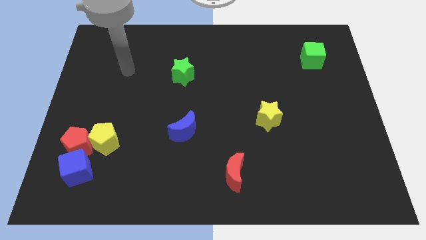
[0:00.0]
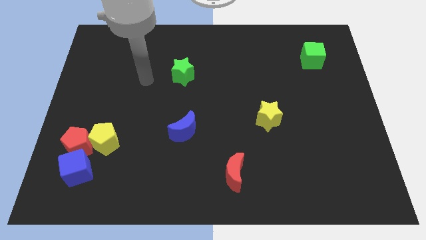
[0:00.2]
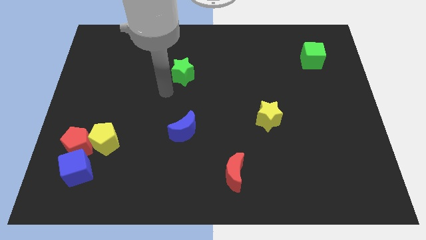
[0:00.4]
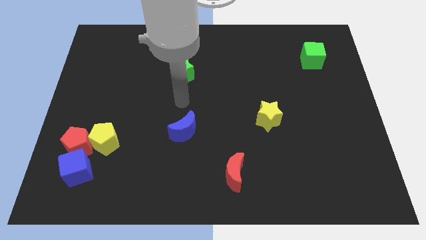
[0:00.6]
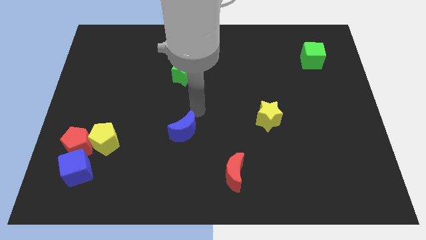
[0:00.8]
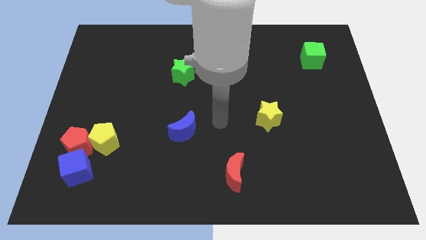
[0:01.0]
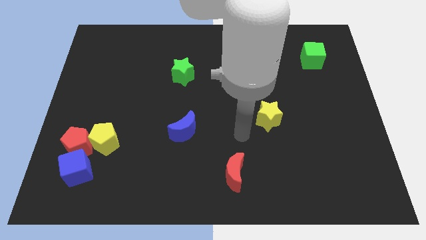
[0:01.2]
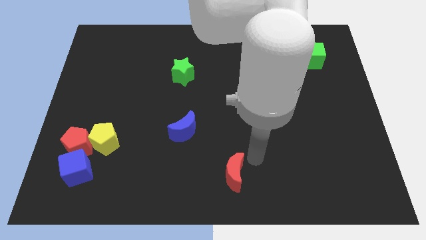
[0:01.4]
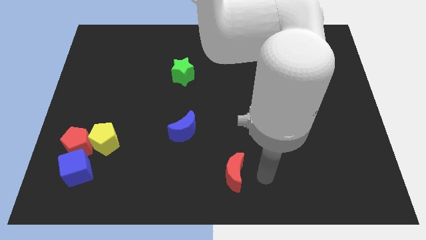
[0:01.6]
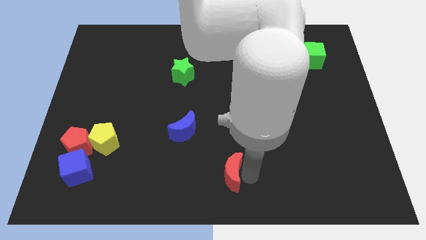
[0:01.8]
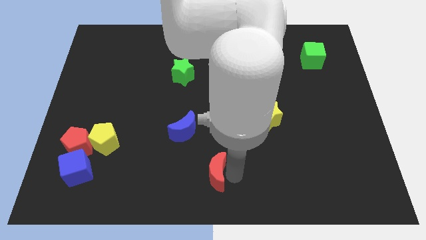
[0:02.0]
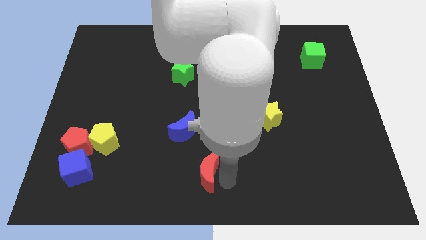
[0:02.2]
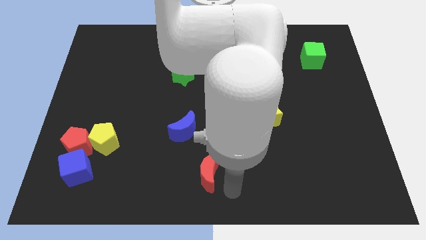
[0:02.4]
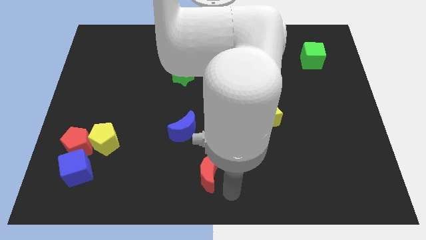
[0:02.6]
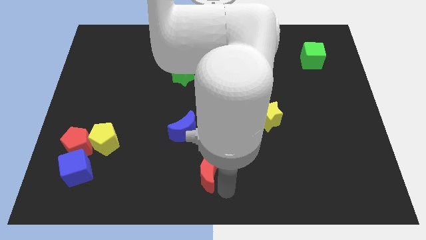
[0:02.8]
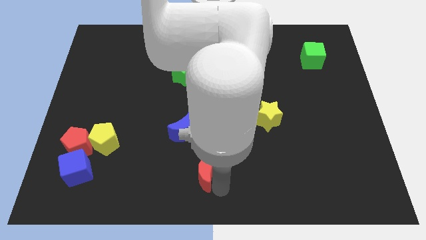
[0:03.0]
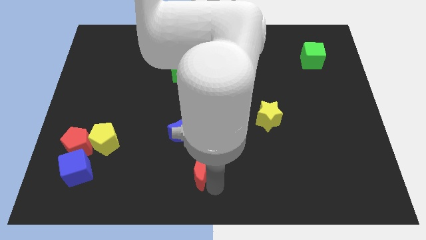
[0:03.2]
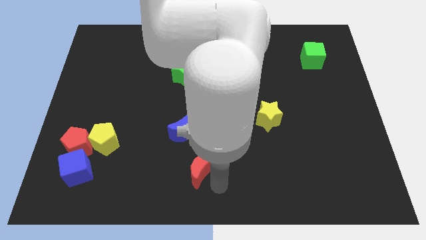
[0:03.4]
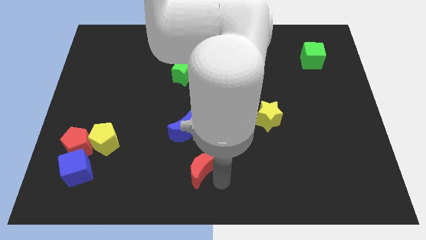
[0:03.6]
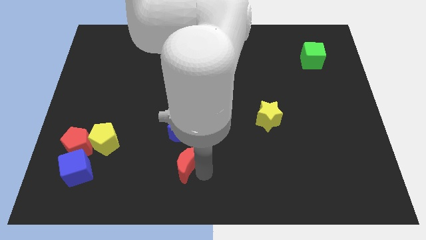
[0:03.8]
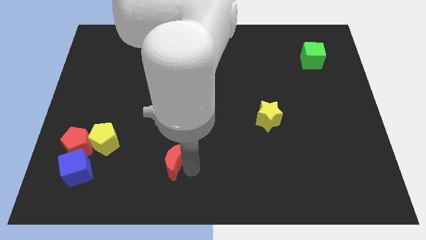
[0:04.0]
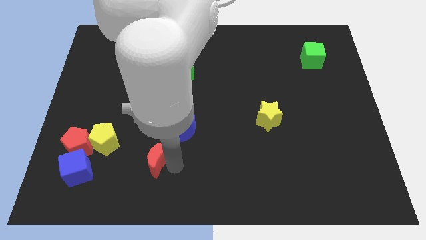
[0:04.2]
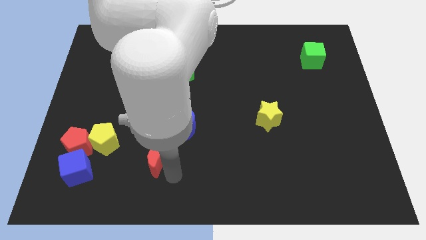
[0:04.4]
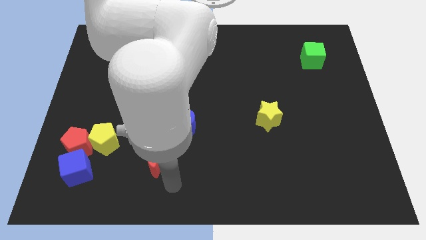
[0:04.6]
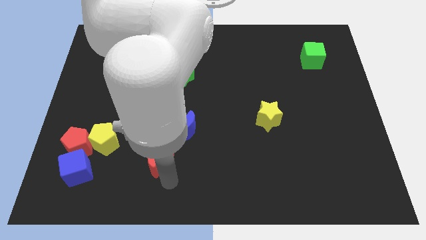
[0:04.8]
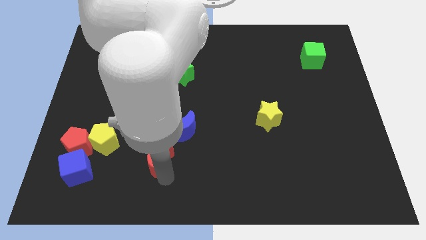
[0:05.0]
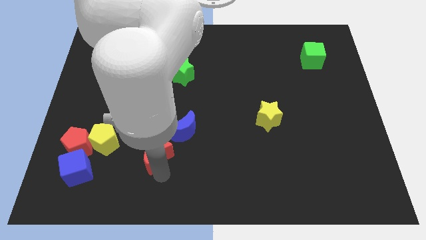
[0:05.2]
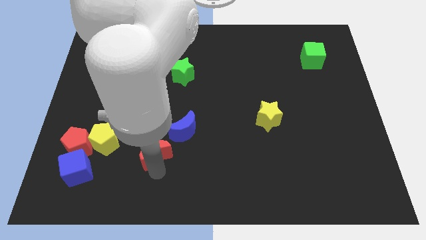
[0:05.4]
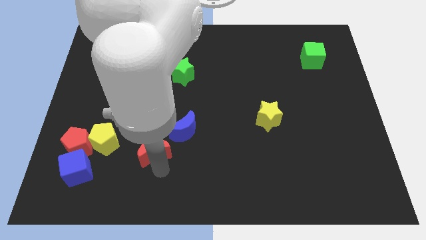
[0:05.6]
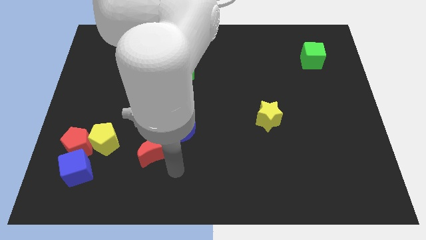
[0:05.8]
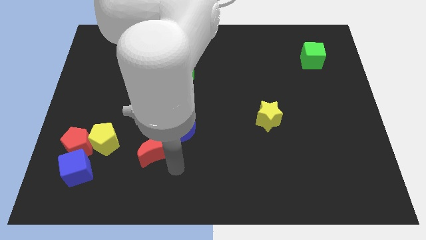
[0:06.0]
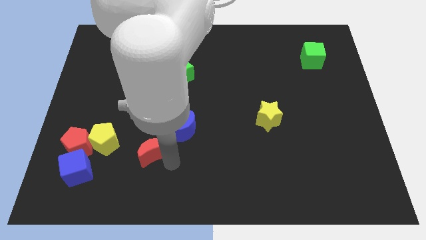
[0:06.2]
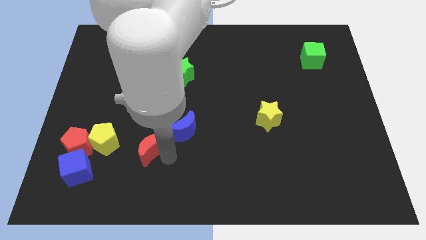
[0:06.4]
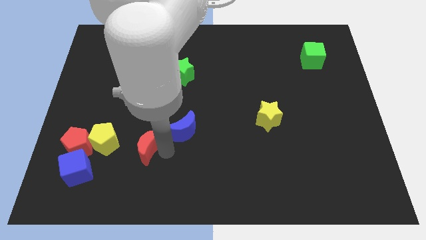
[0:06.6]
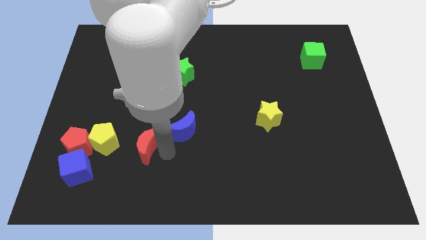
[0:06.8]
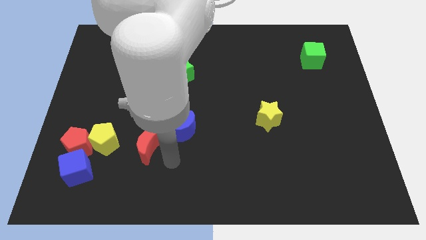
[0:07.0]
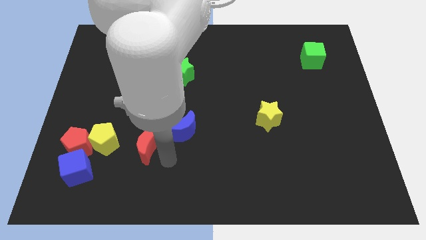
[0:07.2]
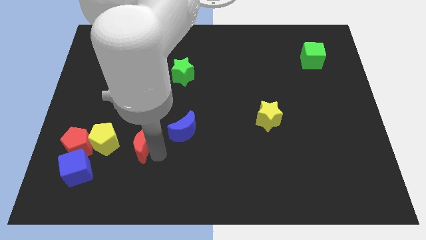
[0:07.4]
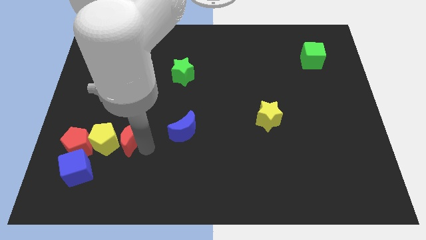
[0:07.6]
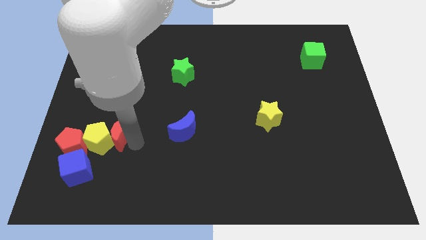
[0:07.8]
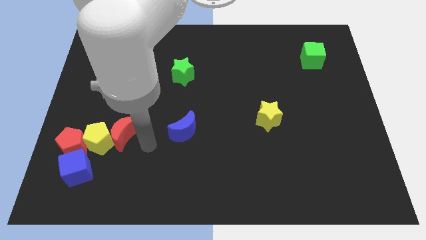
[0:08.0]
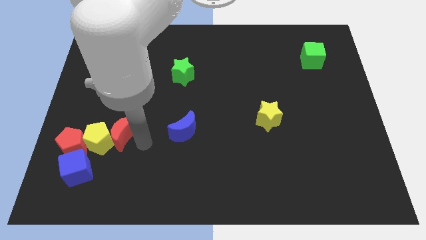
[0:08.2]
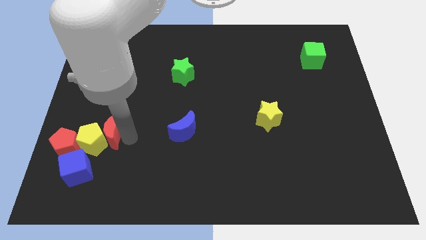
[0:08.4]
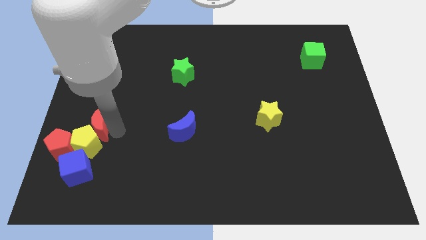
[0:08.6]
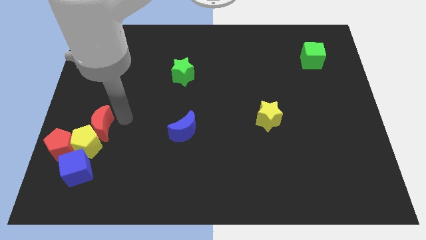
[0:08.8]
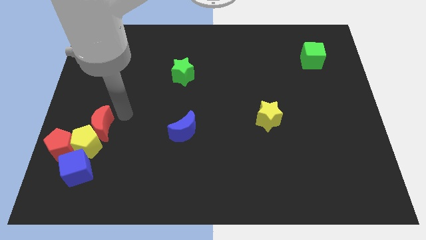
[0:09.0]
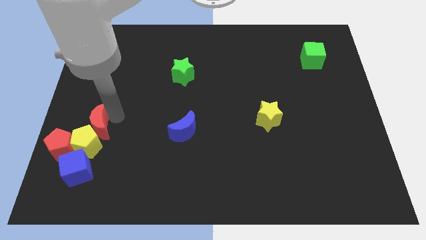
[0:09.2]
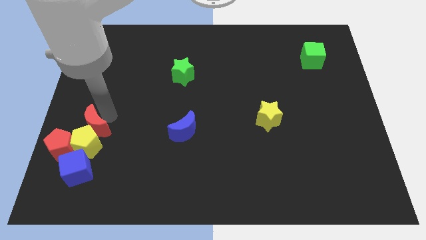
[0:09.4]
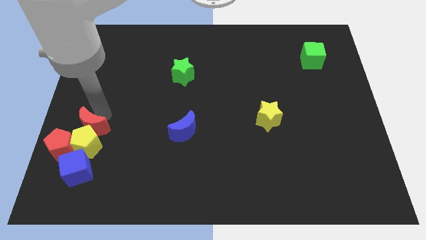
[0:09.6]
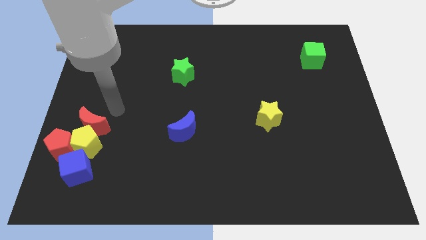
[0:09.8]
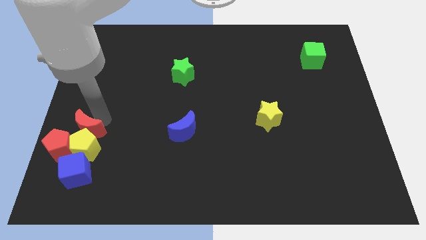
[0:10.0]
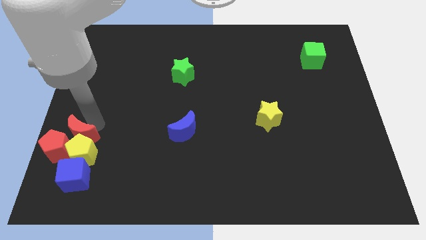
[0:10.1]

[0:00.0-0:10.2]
push the red moon close to the red pentagon

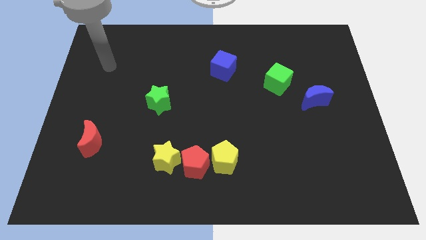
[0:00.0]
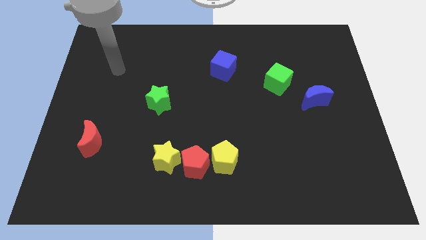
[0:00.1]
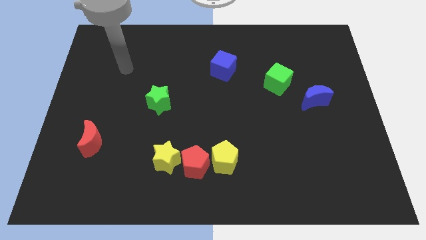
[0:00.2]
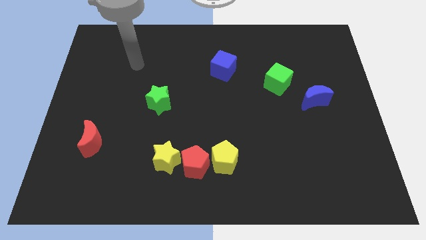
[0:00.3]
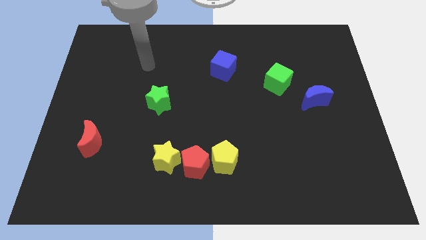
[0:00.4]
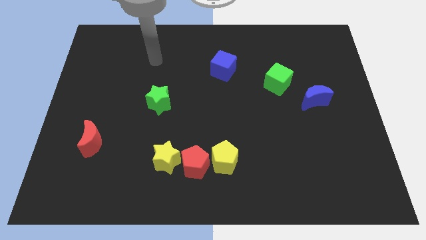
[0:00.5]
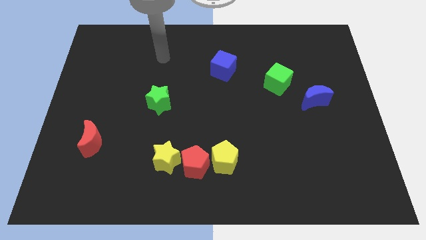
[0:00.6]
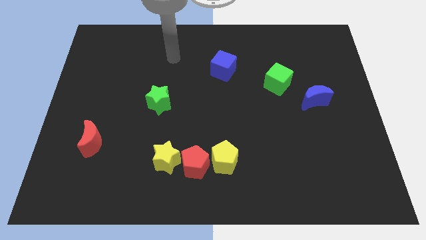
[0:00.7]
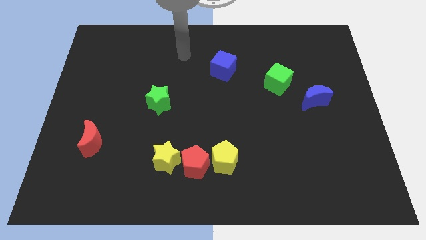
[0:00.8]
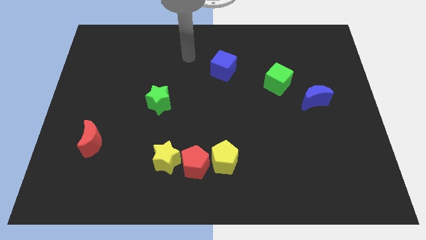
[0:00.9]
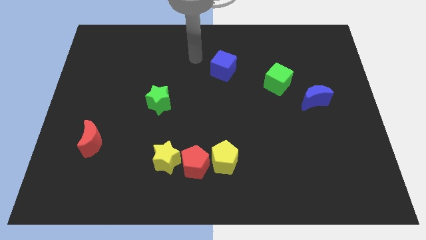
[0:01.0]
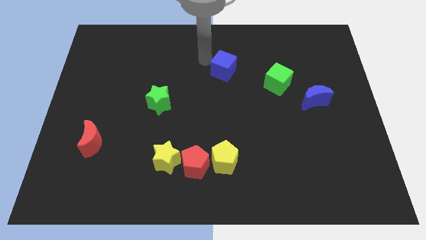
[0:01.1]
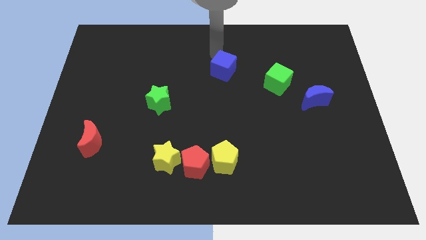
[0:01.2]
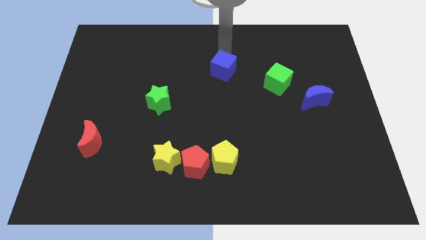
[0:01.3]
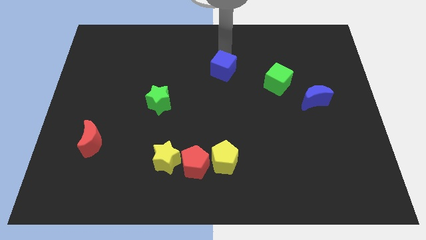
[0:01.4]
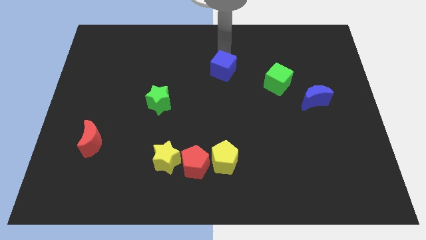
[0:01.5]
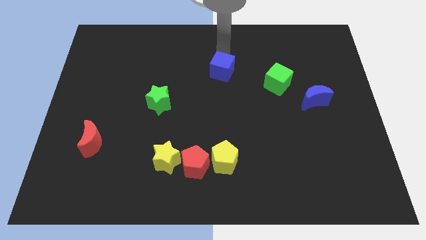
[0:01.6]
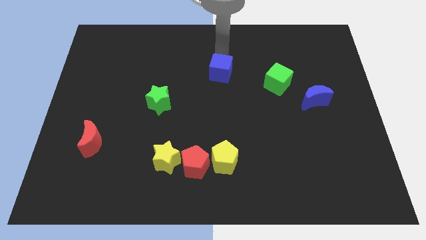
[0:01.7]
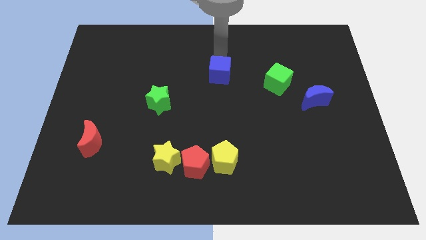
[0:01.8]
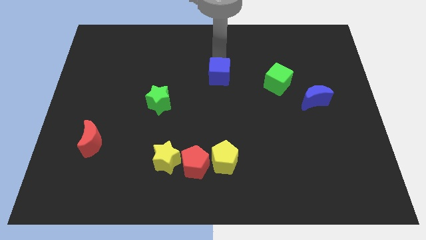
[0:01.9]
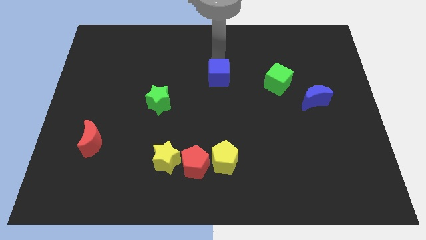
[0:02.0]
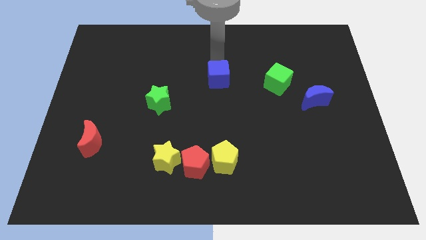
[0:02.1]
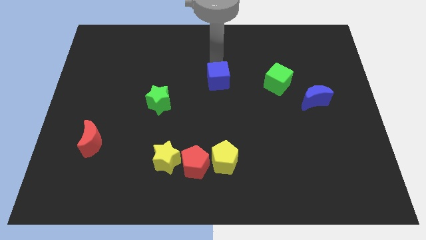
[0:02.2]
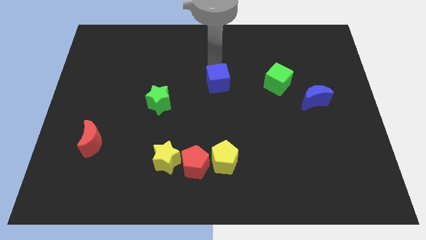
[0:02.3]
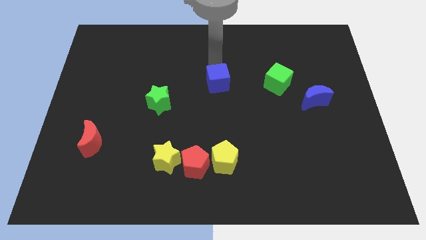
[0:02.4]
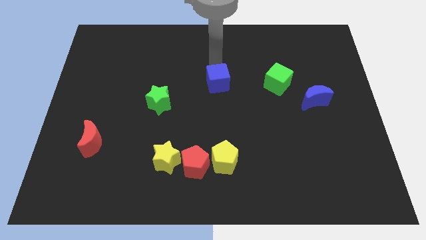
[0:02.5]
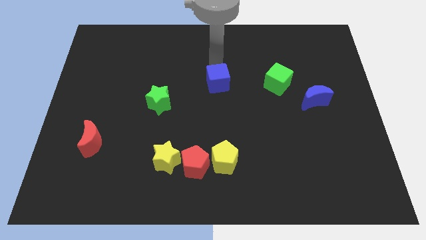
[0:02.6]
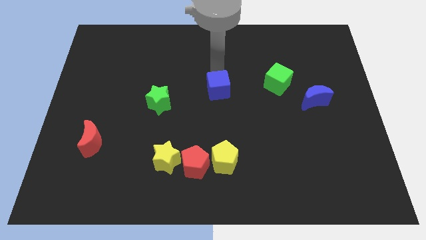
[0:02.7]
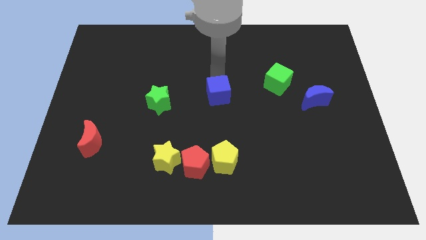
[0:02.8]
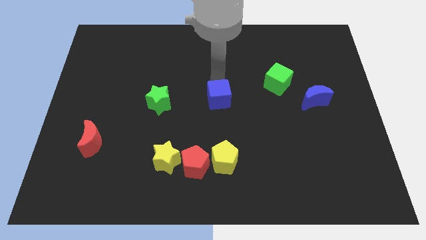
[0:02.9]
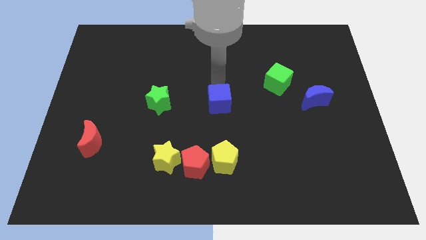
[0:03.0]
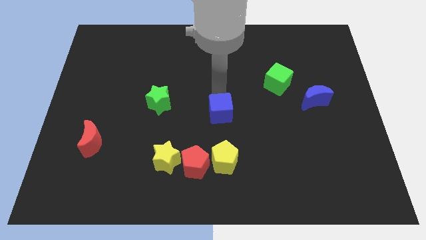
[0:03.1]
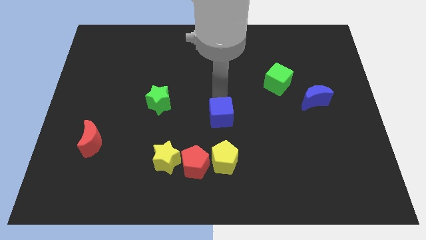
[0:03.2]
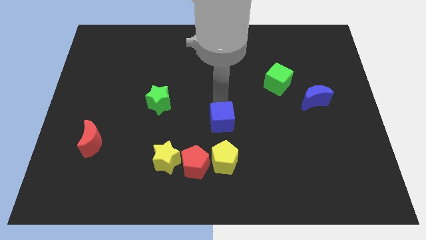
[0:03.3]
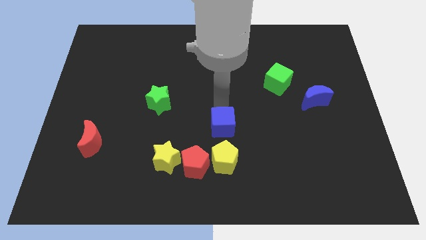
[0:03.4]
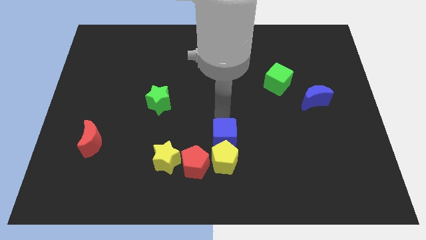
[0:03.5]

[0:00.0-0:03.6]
put the blue cube close to the yellow pentagon
